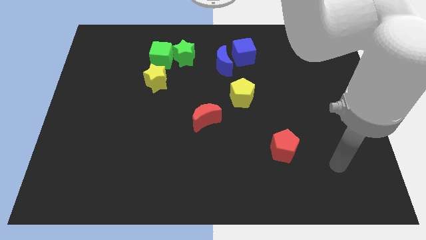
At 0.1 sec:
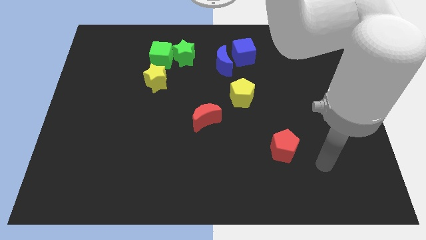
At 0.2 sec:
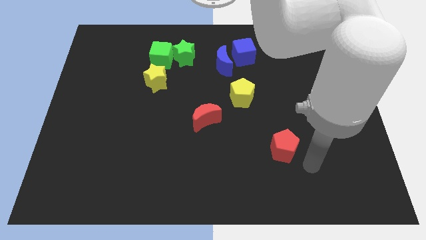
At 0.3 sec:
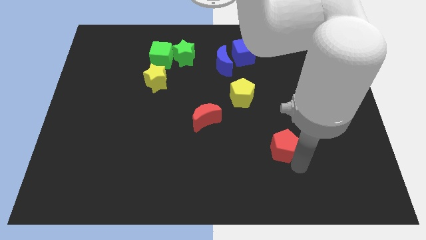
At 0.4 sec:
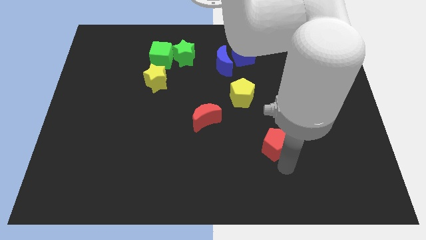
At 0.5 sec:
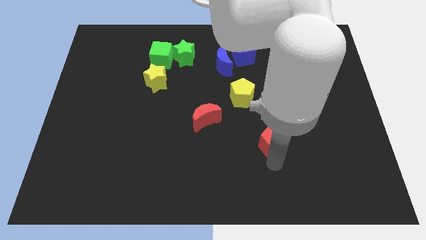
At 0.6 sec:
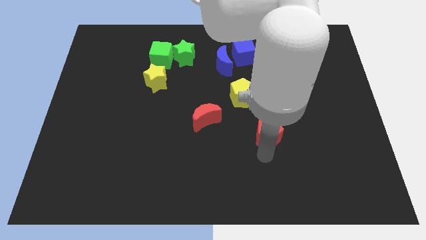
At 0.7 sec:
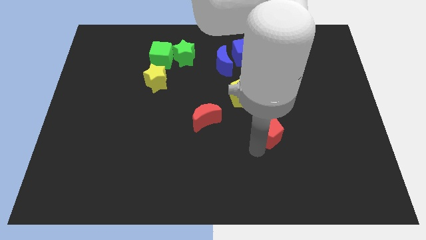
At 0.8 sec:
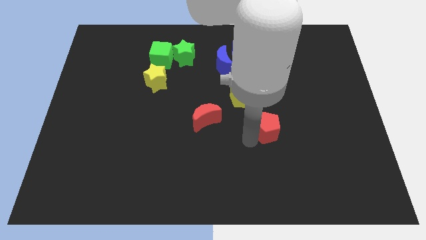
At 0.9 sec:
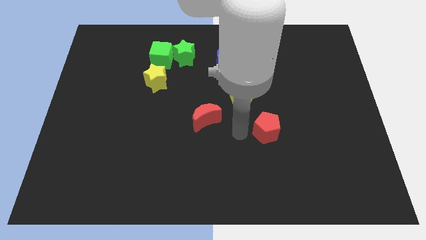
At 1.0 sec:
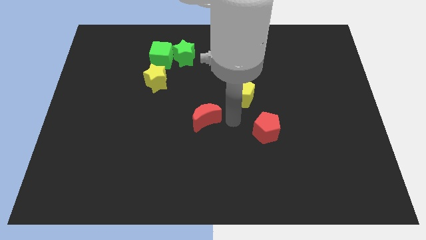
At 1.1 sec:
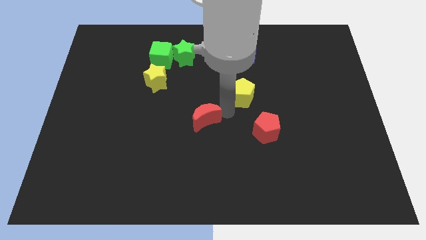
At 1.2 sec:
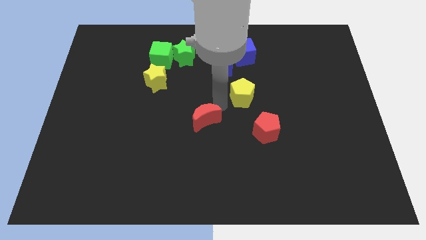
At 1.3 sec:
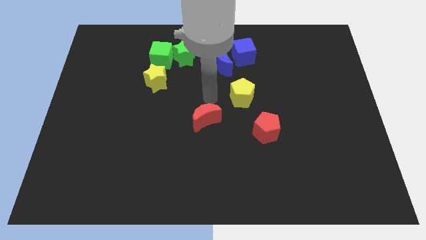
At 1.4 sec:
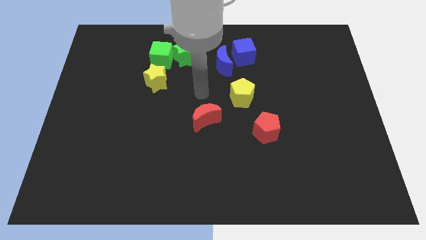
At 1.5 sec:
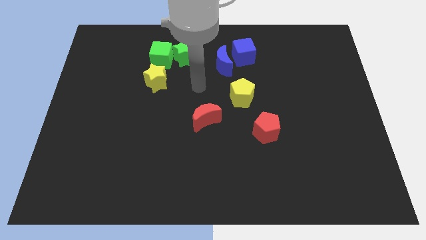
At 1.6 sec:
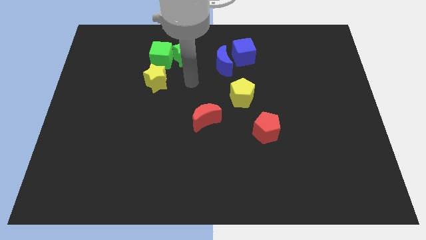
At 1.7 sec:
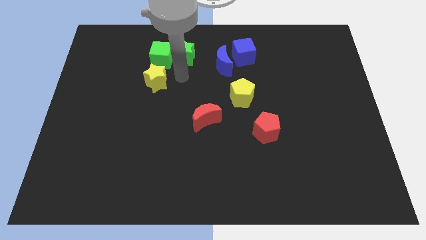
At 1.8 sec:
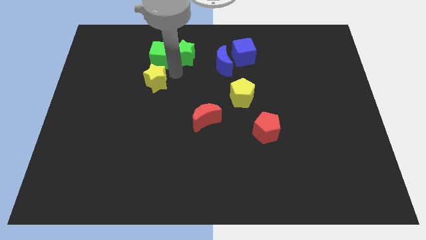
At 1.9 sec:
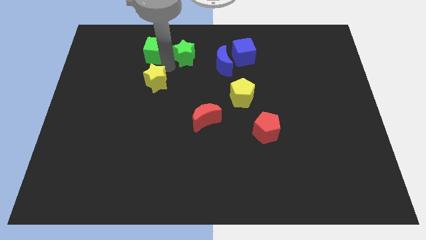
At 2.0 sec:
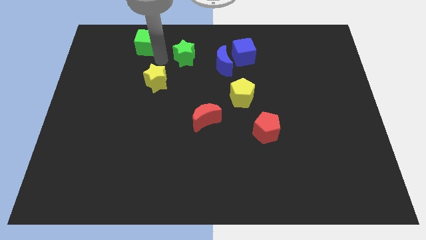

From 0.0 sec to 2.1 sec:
pull the green star apart from the green cube

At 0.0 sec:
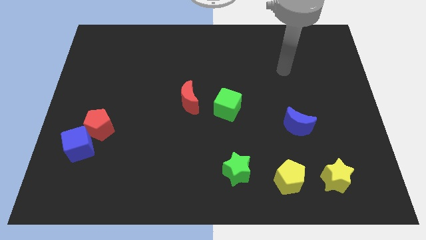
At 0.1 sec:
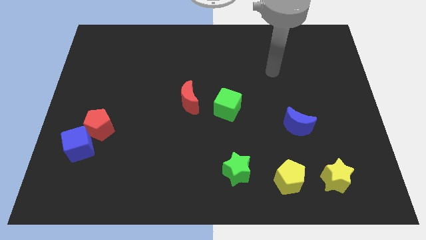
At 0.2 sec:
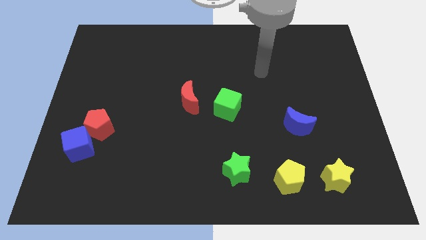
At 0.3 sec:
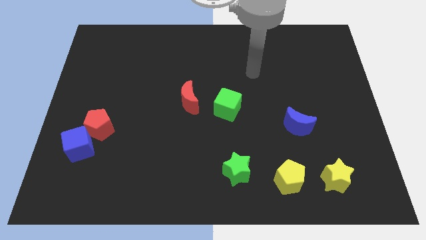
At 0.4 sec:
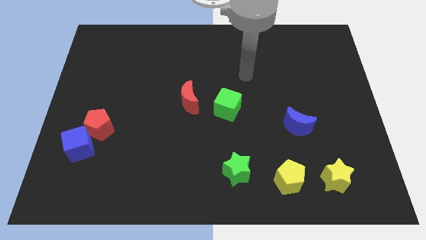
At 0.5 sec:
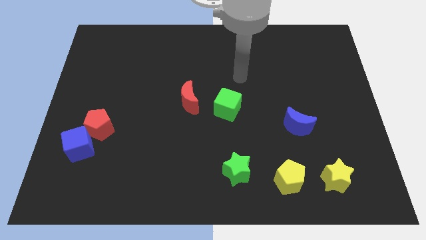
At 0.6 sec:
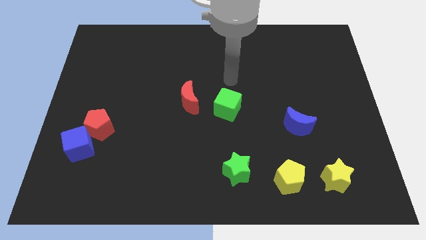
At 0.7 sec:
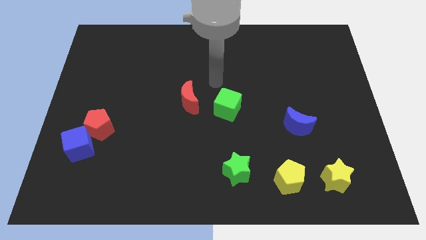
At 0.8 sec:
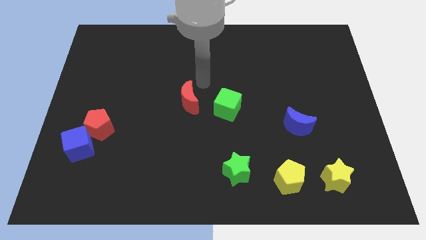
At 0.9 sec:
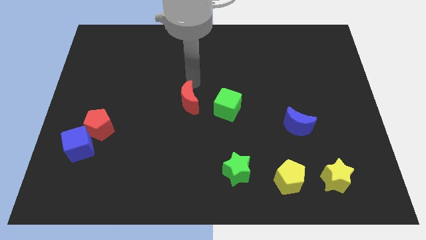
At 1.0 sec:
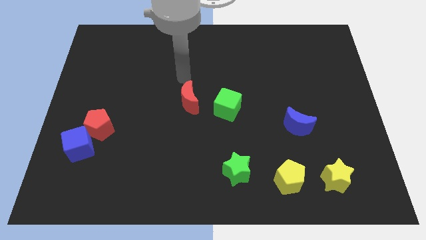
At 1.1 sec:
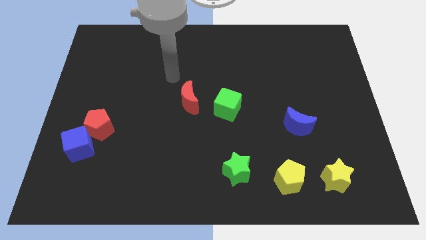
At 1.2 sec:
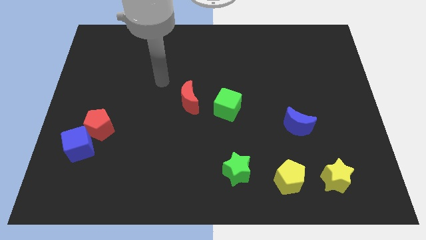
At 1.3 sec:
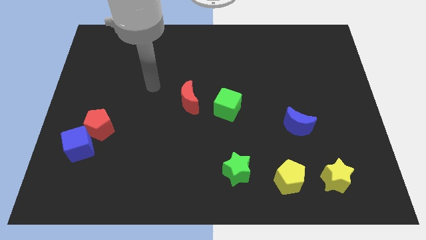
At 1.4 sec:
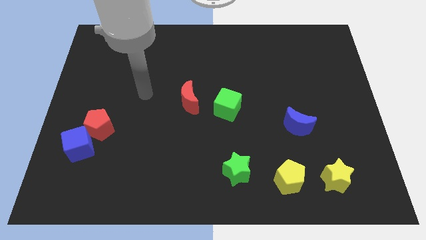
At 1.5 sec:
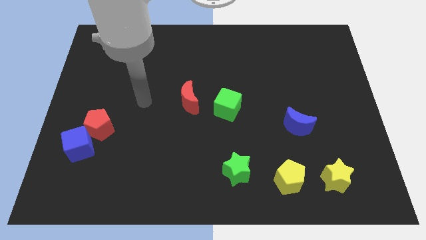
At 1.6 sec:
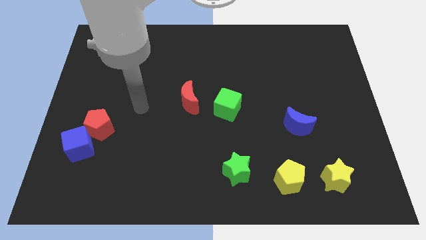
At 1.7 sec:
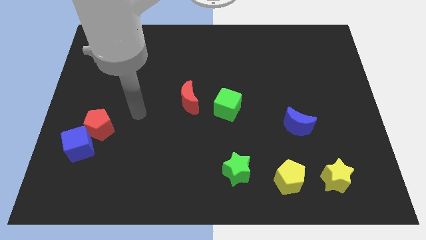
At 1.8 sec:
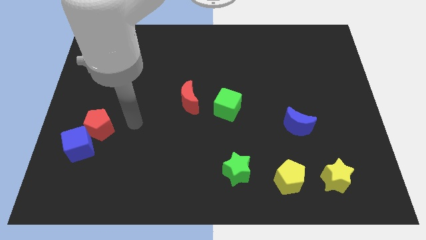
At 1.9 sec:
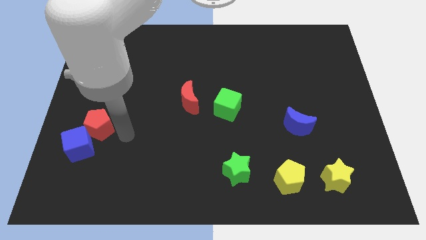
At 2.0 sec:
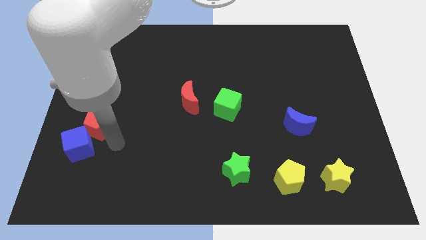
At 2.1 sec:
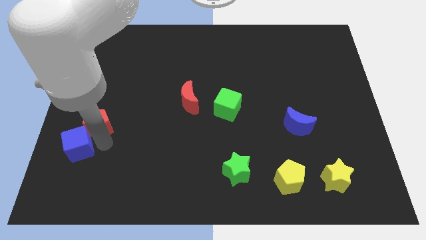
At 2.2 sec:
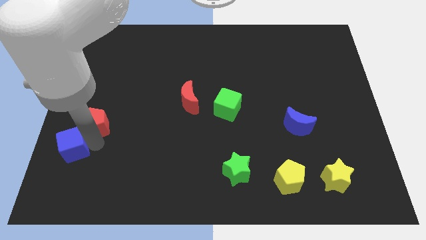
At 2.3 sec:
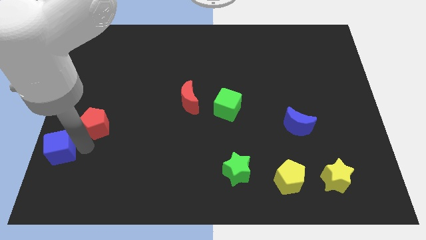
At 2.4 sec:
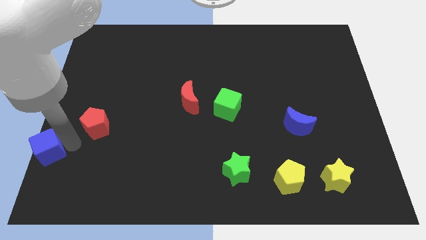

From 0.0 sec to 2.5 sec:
pull the red pentagon apart from the blue cube

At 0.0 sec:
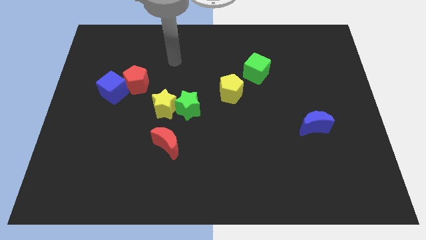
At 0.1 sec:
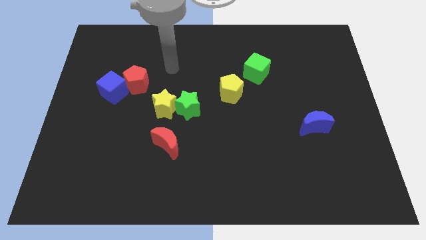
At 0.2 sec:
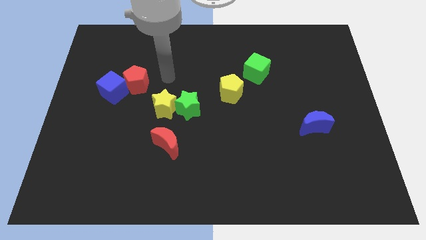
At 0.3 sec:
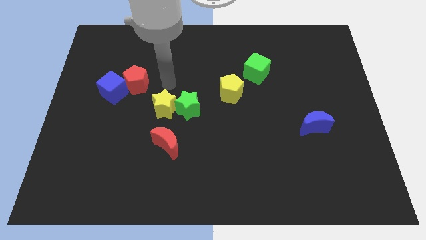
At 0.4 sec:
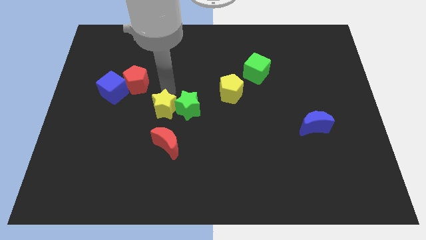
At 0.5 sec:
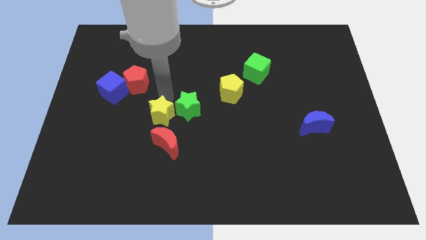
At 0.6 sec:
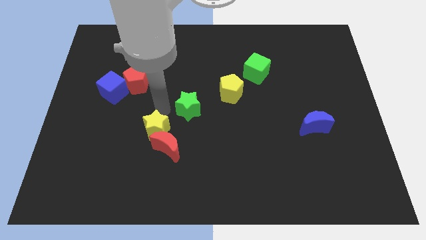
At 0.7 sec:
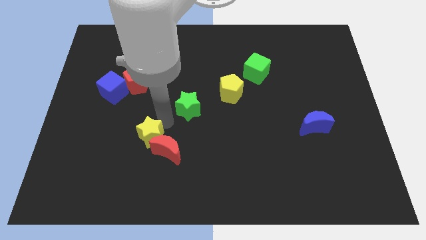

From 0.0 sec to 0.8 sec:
move the green star away from the yellow star

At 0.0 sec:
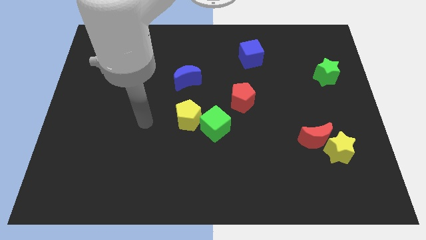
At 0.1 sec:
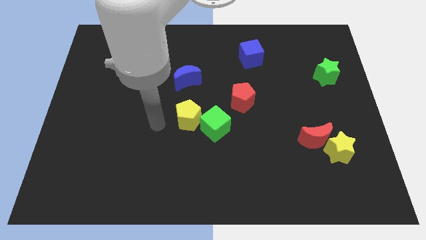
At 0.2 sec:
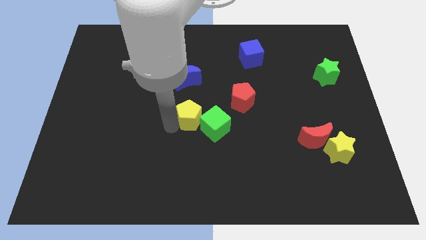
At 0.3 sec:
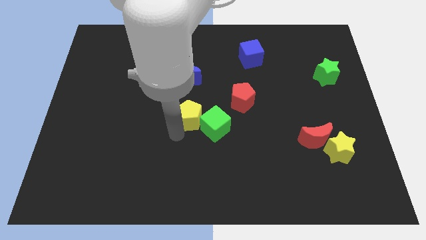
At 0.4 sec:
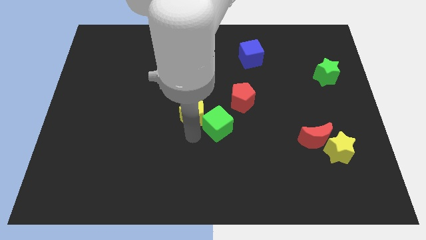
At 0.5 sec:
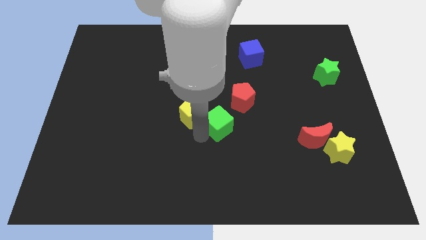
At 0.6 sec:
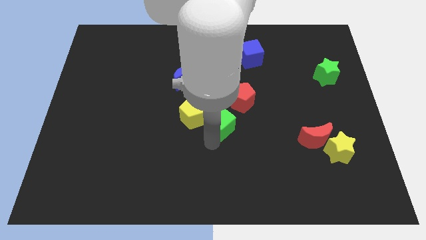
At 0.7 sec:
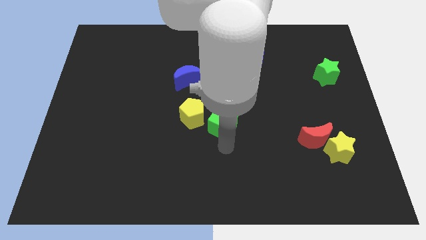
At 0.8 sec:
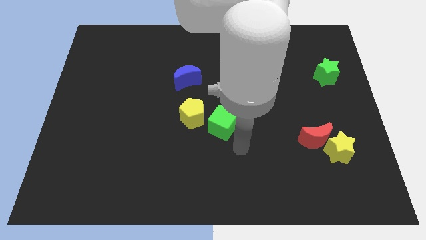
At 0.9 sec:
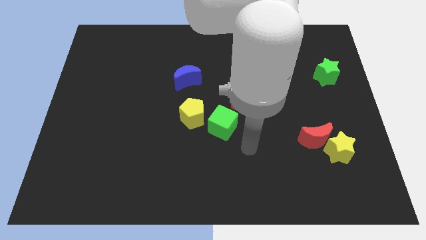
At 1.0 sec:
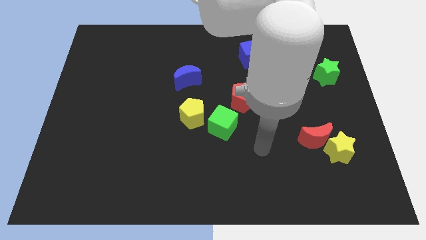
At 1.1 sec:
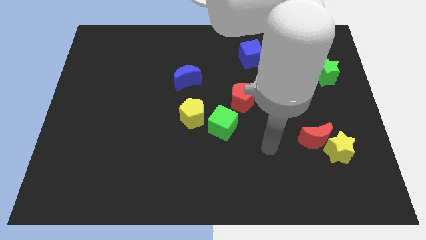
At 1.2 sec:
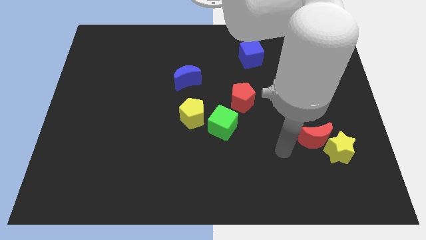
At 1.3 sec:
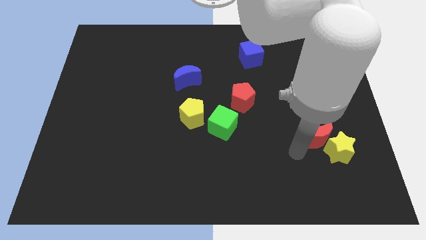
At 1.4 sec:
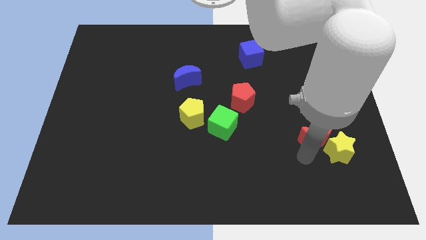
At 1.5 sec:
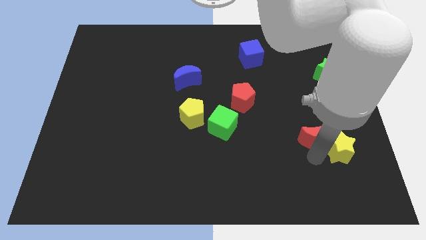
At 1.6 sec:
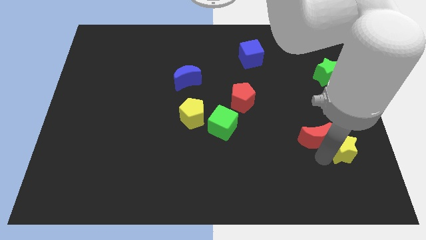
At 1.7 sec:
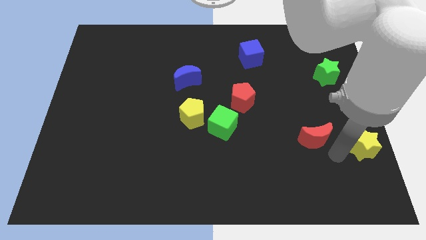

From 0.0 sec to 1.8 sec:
pull the red moon apart from the yellow star

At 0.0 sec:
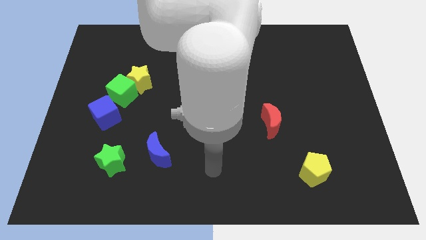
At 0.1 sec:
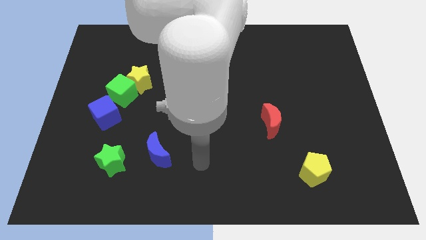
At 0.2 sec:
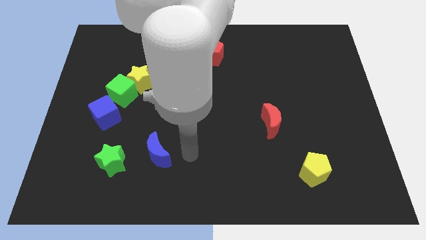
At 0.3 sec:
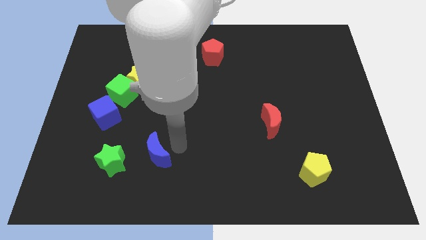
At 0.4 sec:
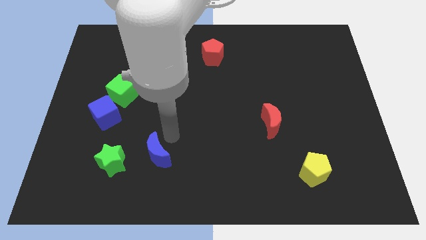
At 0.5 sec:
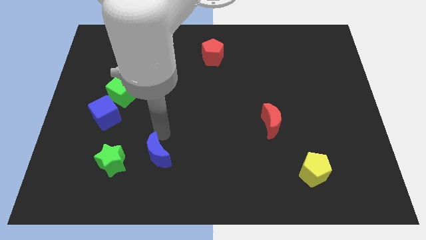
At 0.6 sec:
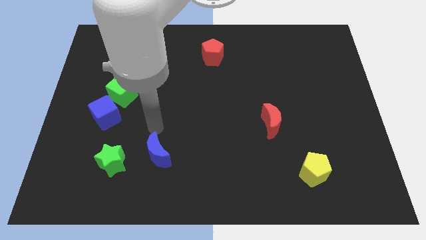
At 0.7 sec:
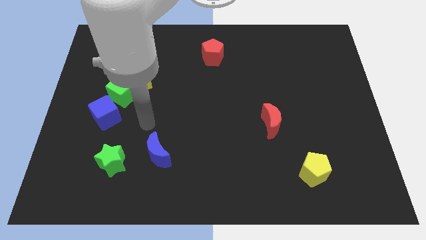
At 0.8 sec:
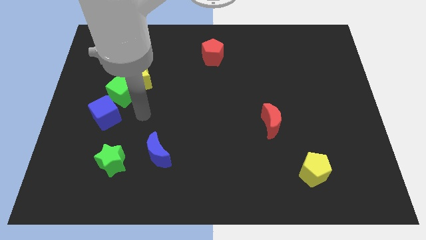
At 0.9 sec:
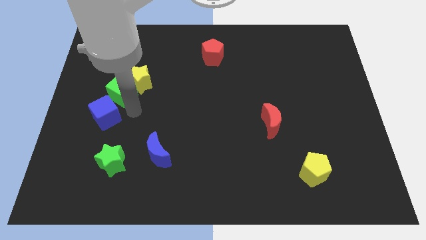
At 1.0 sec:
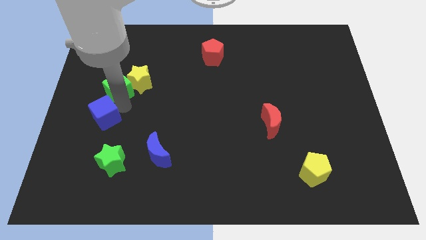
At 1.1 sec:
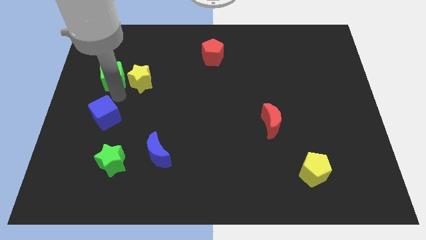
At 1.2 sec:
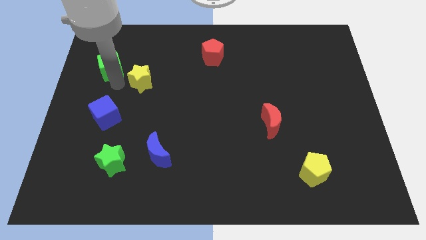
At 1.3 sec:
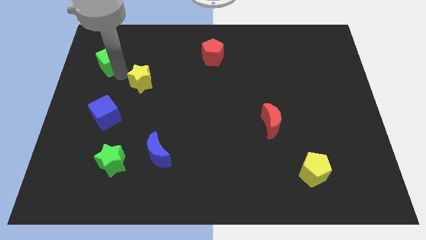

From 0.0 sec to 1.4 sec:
move the yellow star away from the green cube

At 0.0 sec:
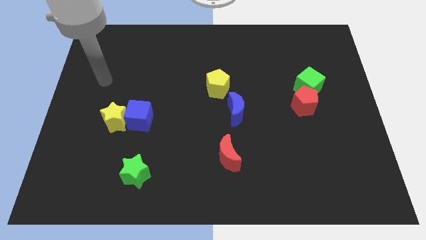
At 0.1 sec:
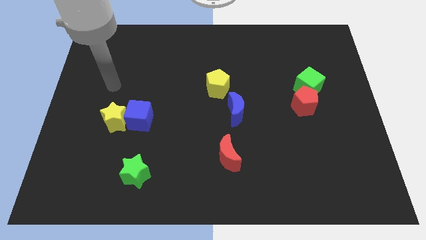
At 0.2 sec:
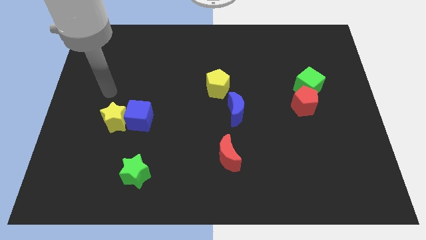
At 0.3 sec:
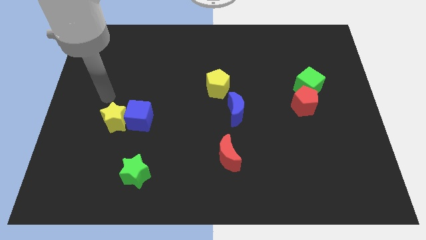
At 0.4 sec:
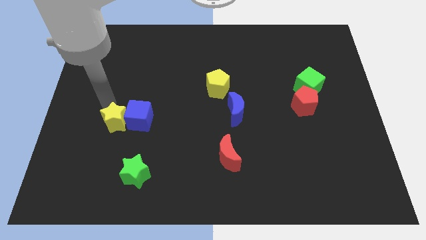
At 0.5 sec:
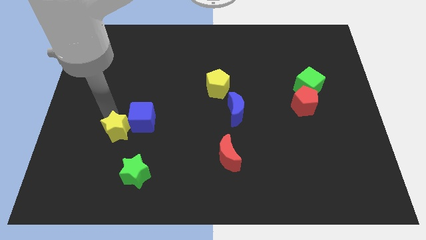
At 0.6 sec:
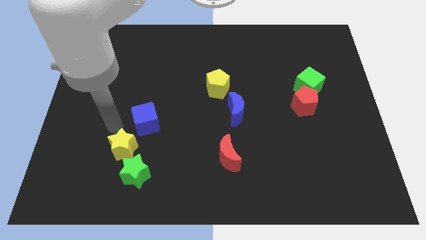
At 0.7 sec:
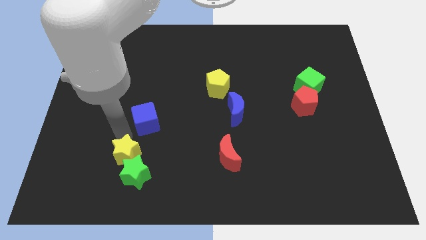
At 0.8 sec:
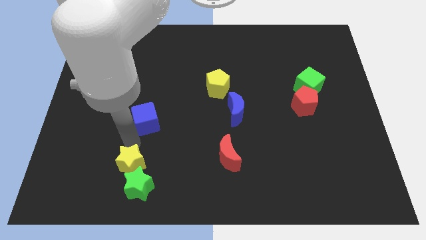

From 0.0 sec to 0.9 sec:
separate the blue cube from the yellow star
